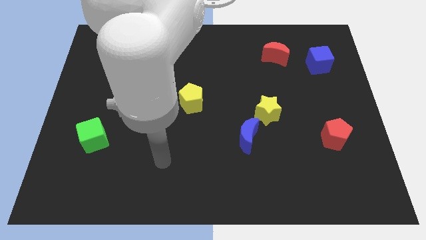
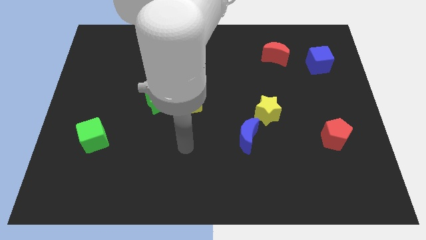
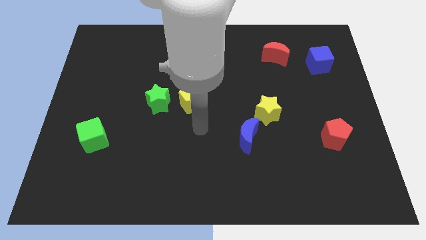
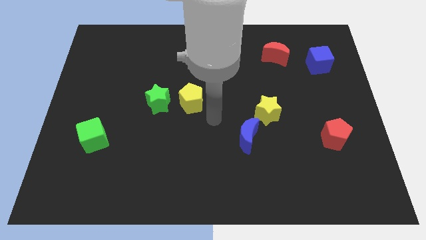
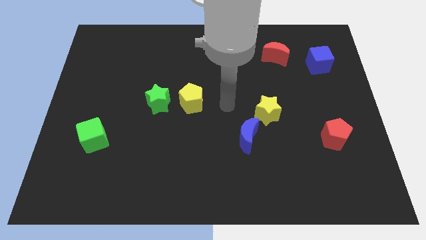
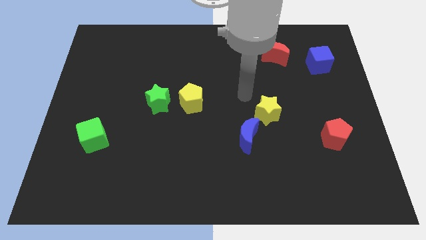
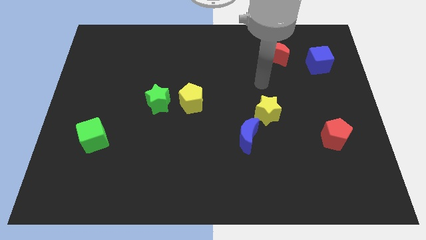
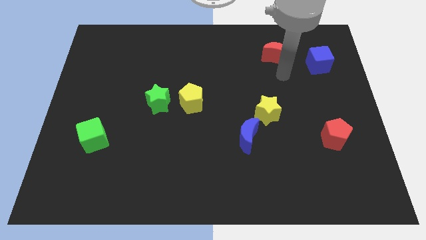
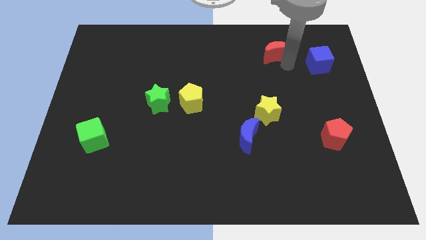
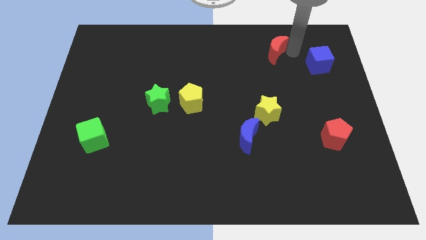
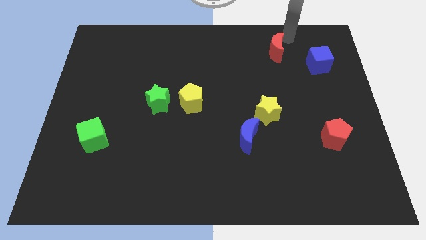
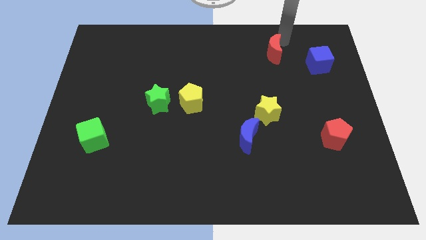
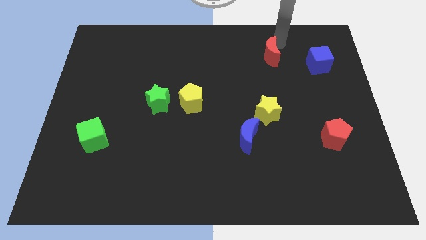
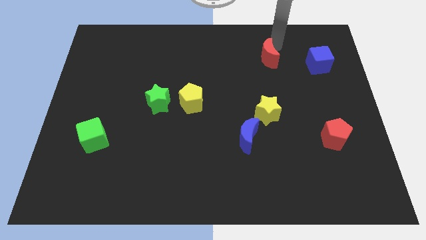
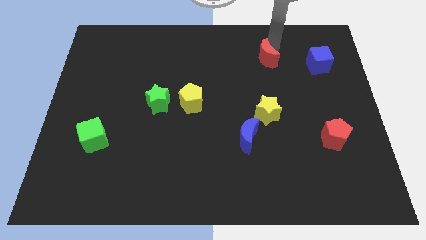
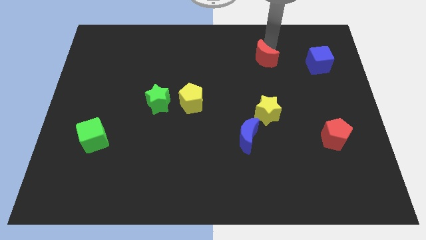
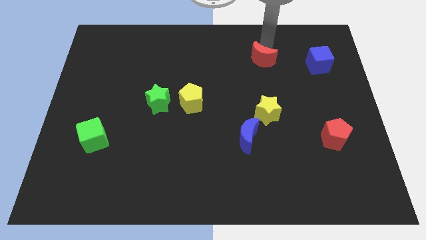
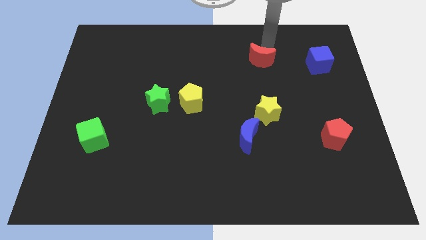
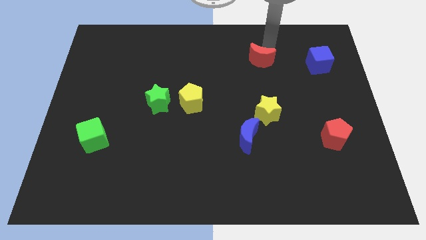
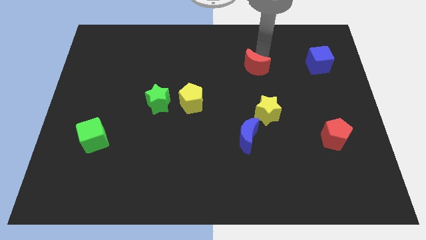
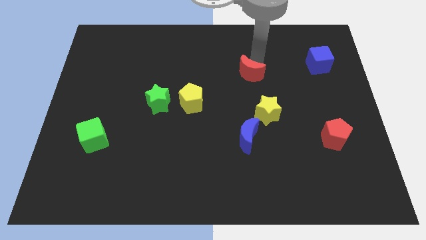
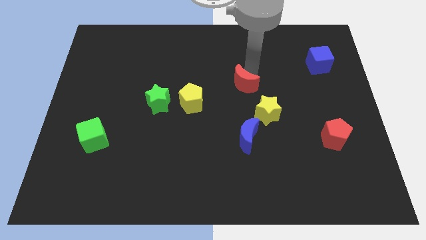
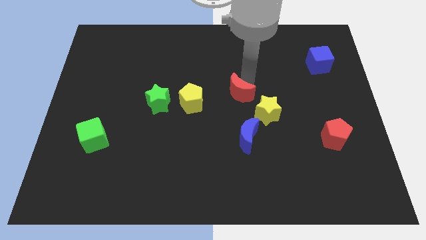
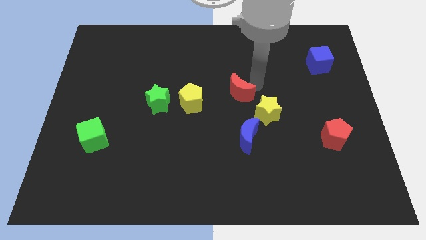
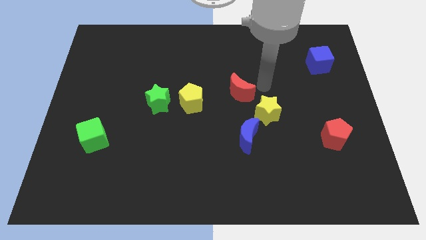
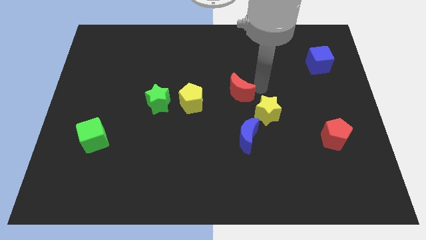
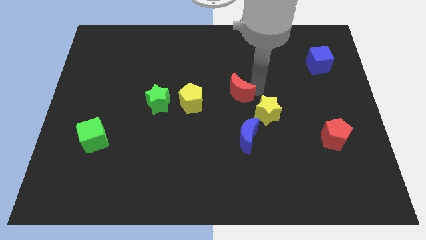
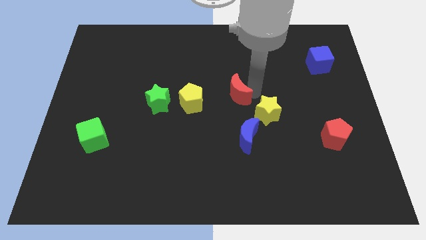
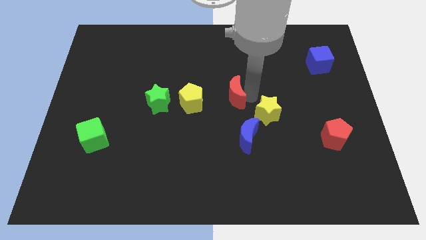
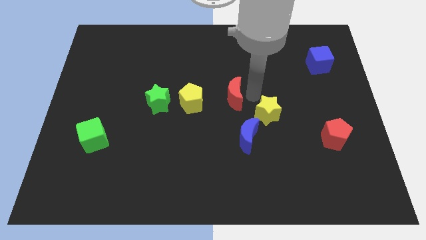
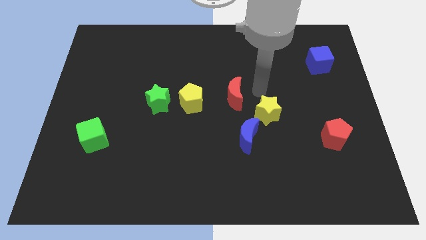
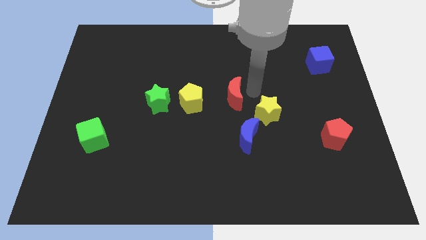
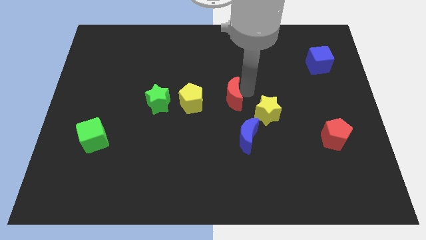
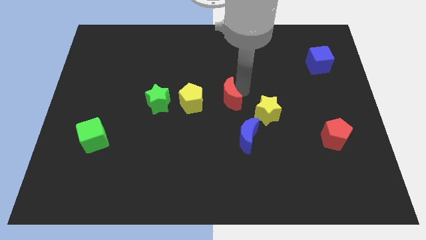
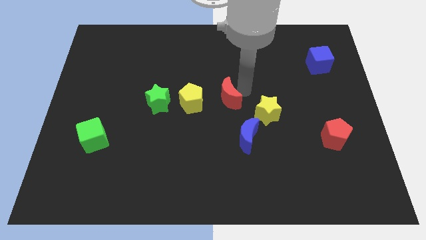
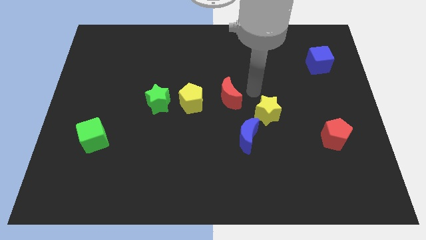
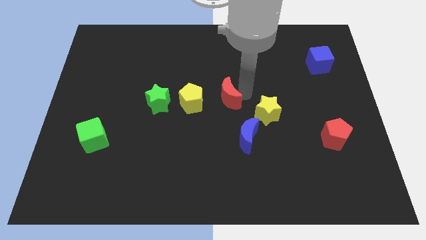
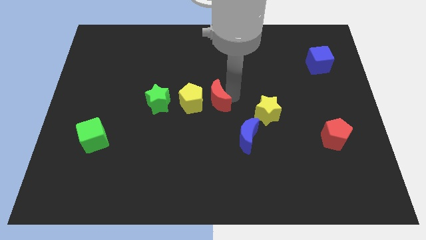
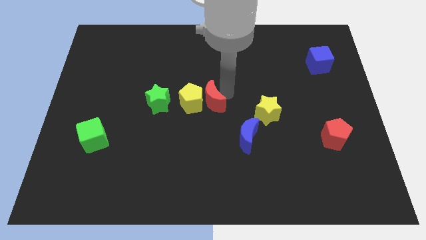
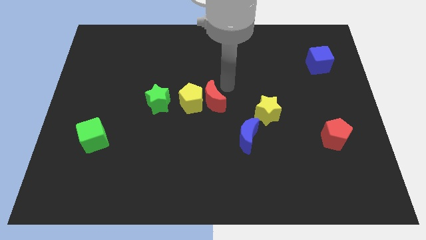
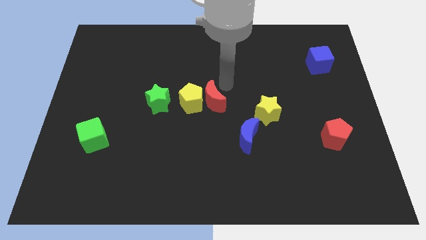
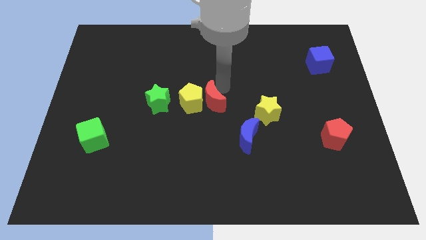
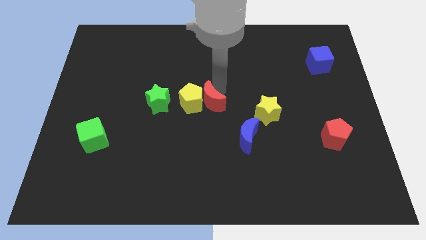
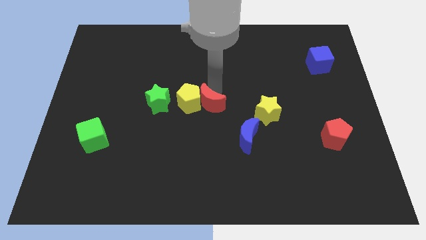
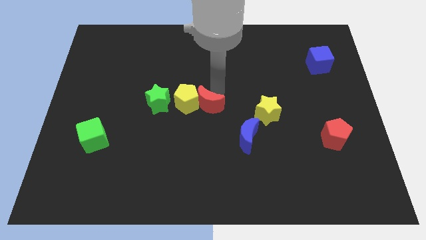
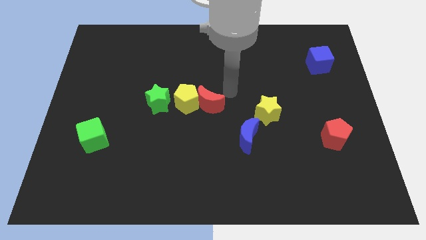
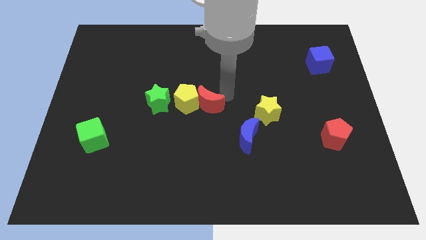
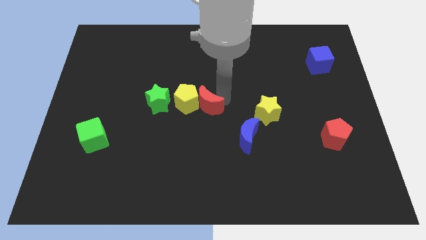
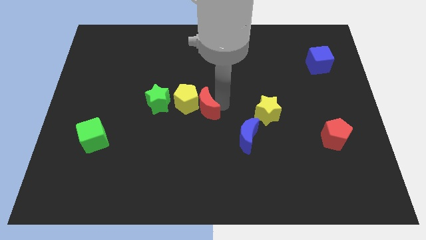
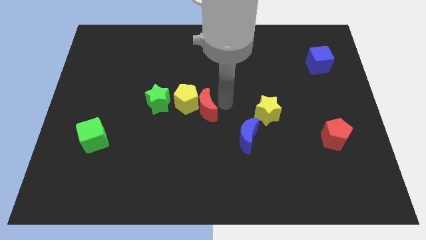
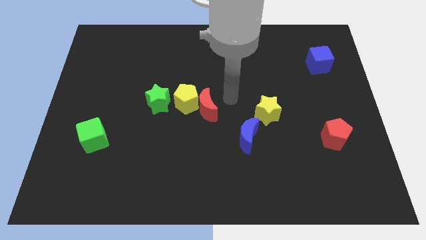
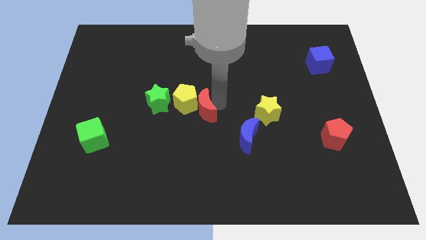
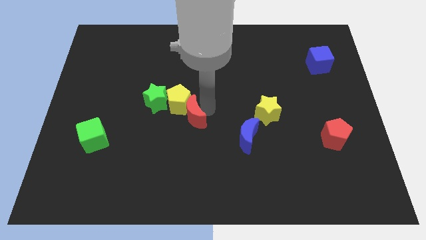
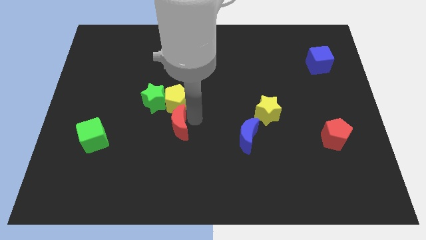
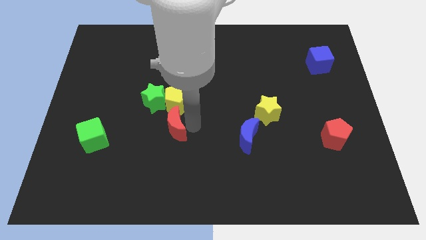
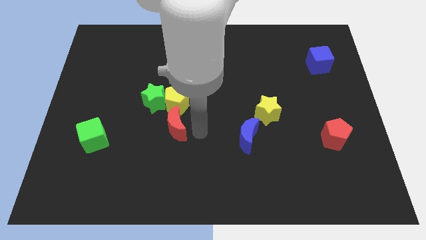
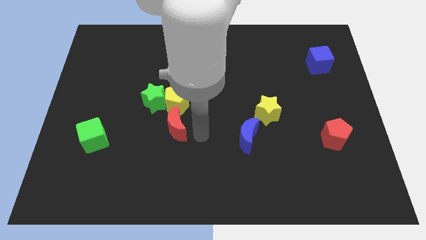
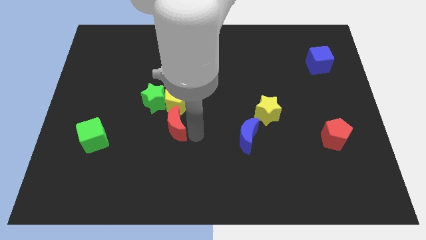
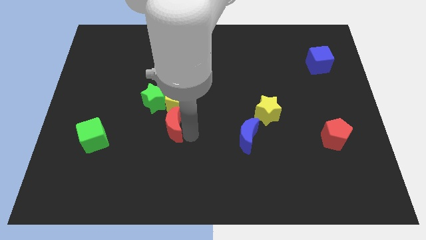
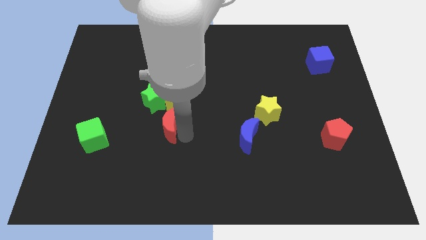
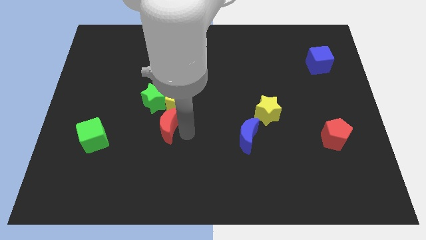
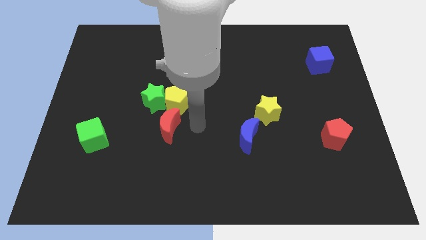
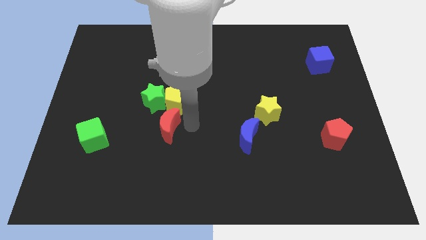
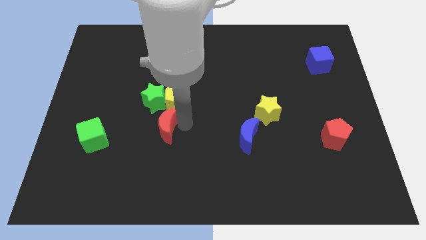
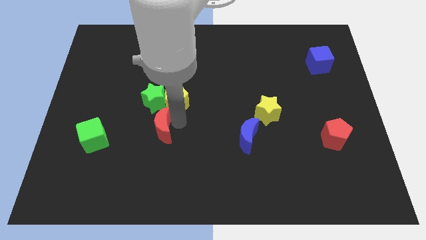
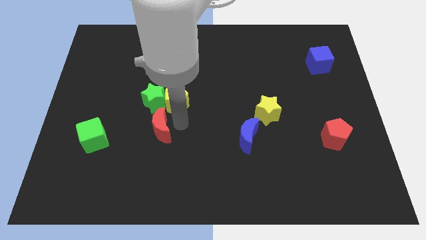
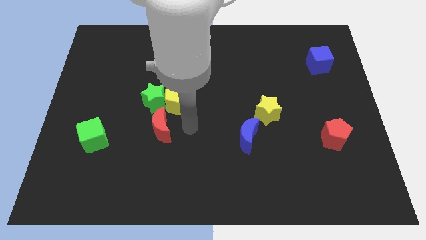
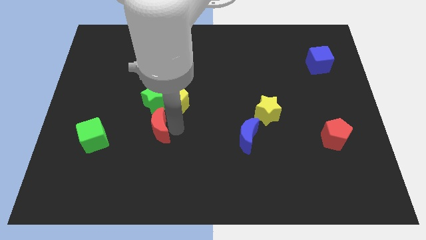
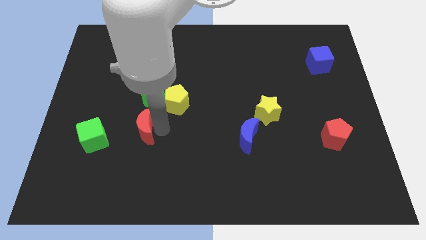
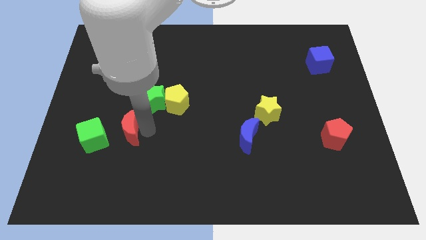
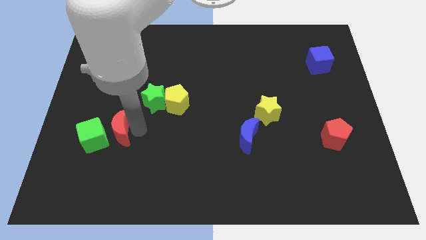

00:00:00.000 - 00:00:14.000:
put the red moon towards the green cube

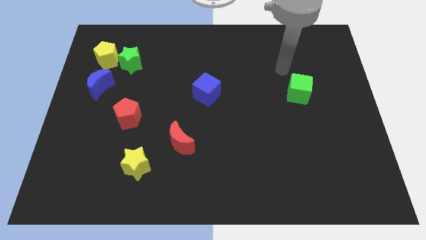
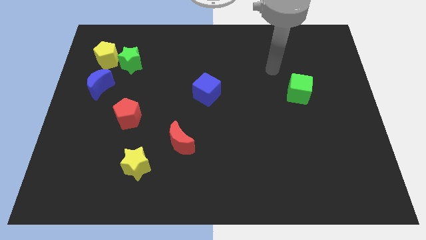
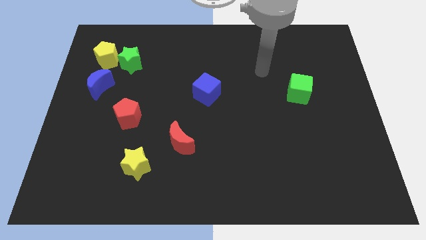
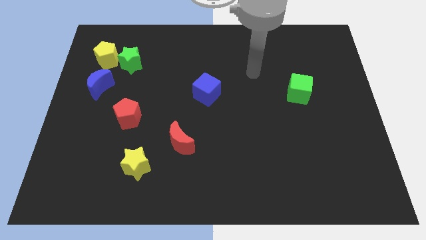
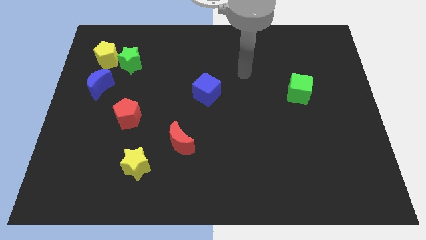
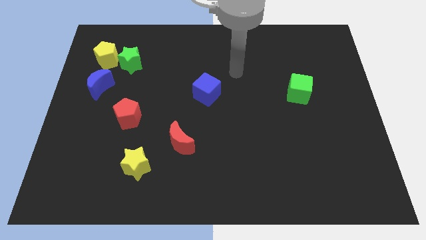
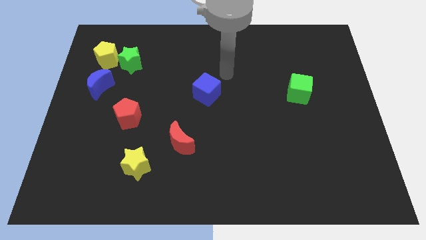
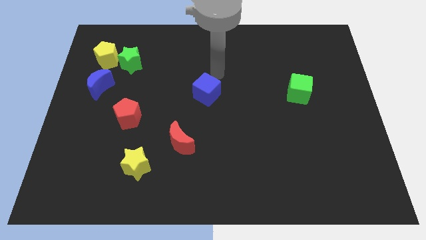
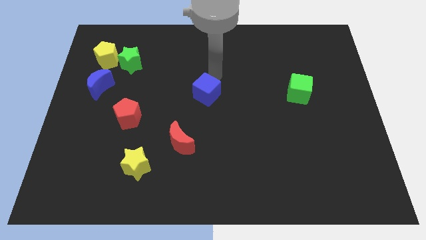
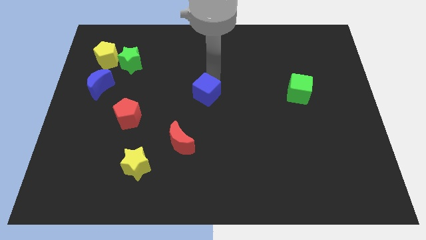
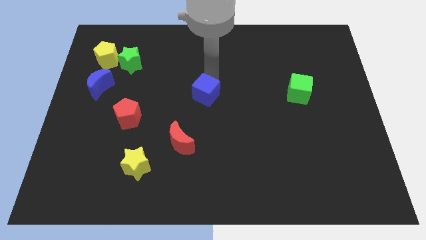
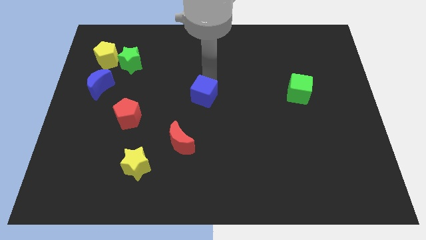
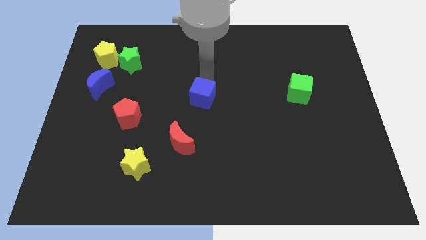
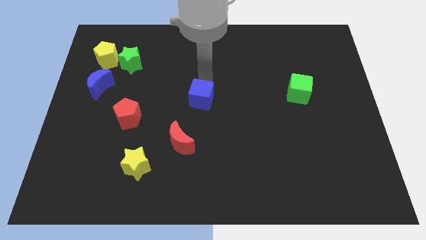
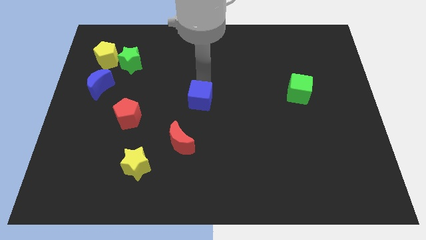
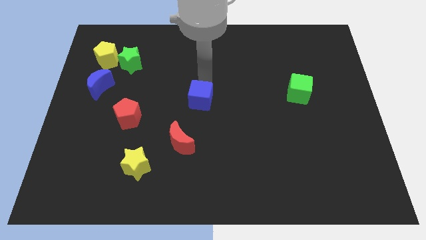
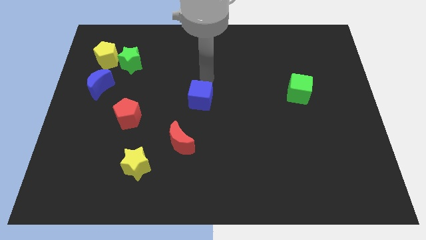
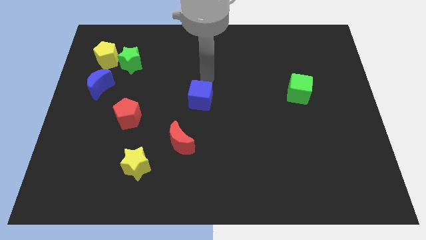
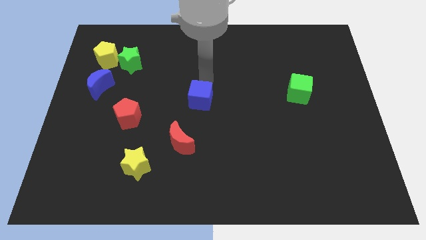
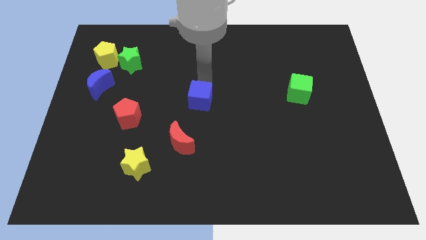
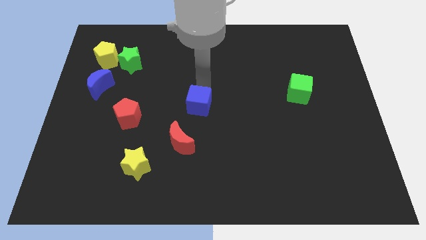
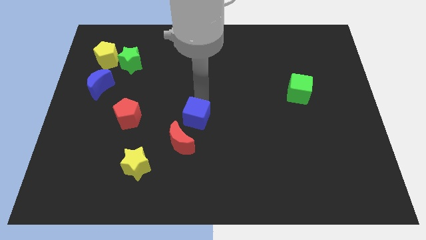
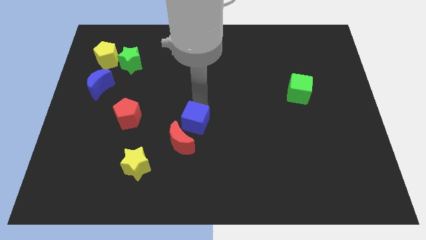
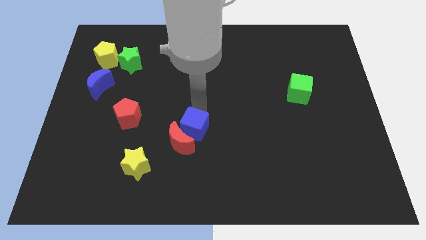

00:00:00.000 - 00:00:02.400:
slide the blue cube close to the red moon
